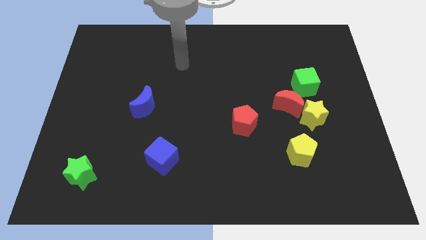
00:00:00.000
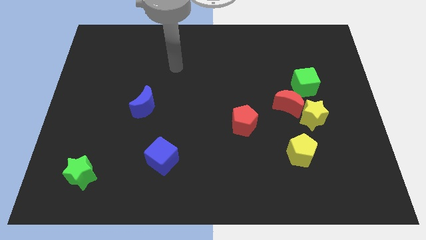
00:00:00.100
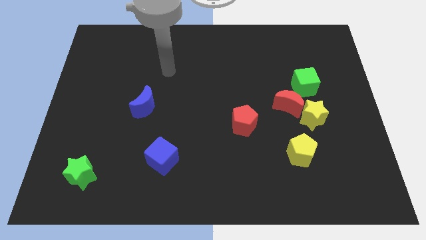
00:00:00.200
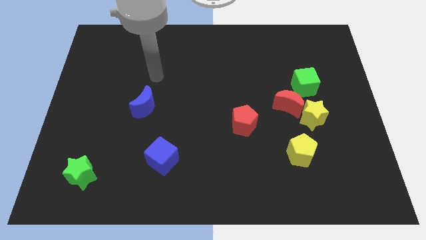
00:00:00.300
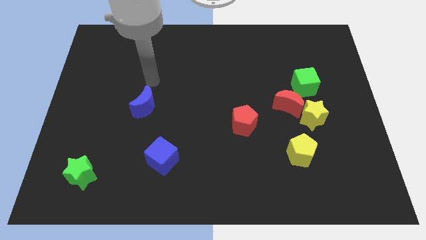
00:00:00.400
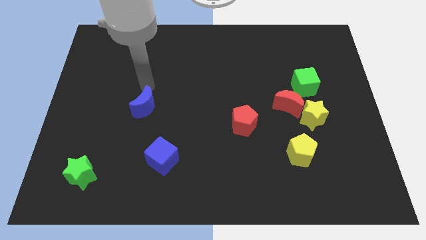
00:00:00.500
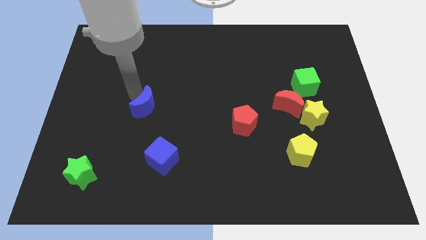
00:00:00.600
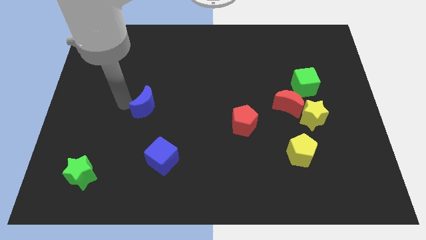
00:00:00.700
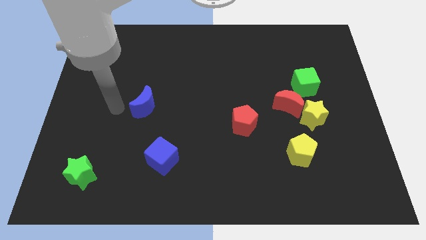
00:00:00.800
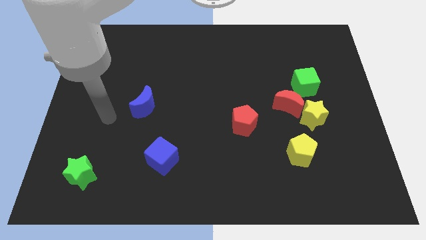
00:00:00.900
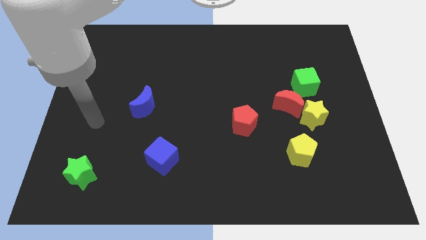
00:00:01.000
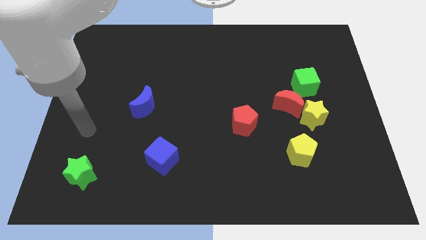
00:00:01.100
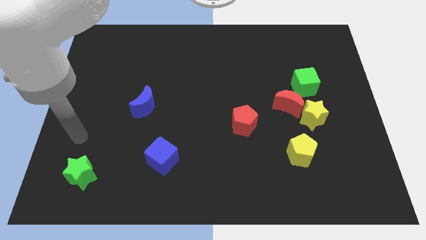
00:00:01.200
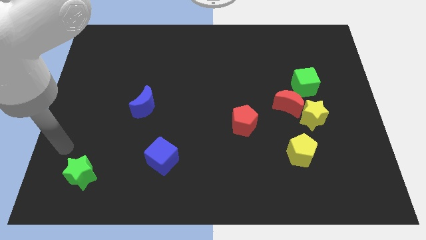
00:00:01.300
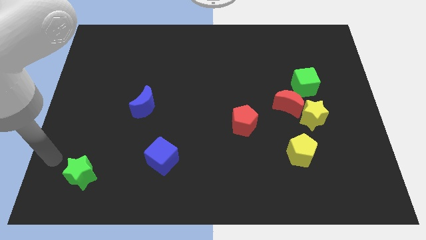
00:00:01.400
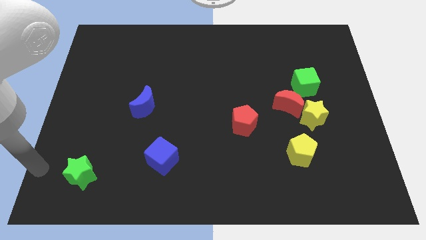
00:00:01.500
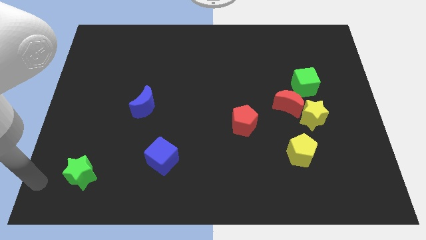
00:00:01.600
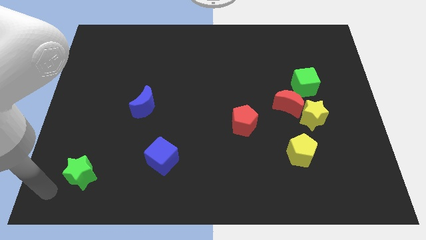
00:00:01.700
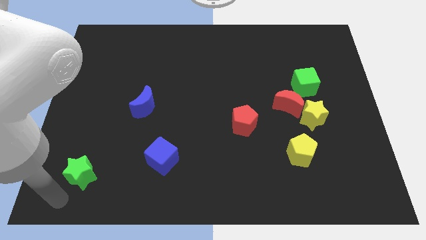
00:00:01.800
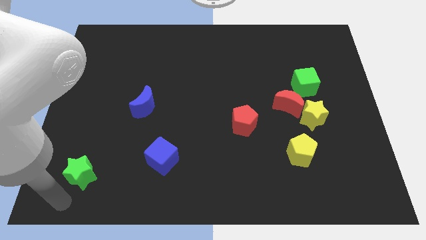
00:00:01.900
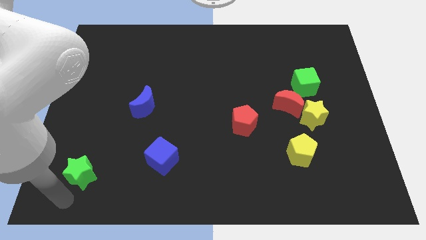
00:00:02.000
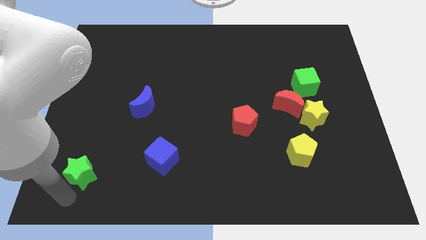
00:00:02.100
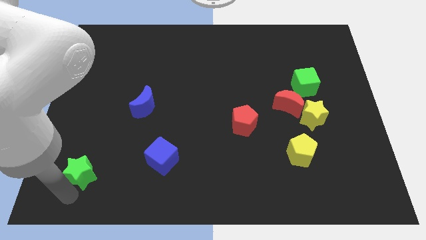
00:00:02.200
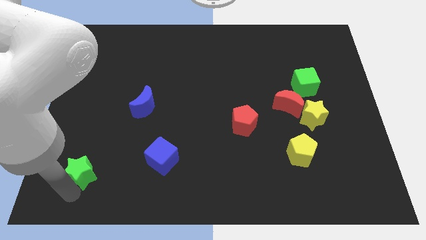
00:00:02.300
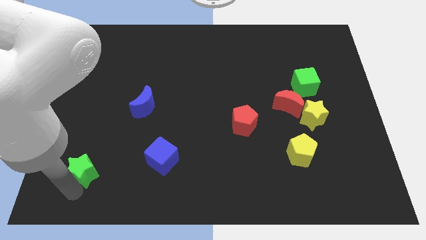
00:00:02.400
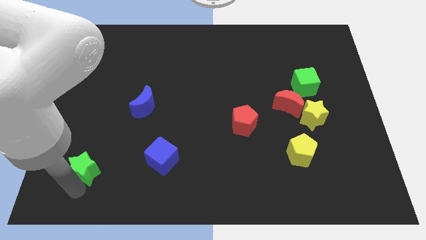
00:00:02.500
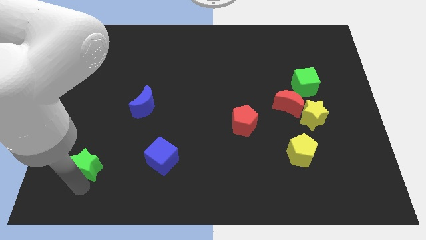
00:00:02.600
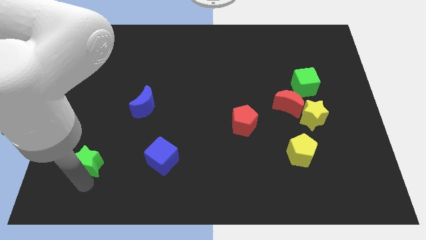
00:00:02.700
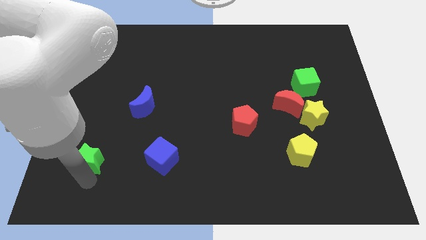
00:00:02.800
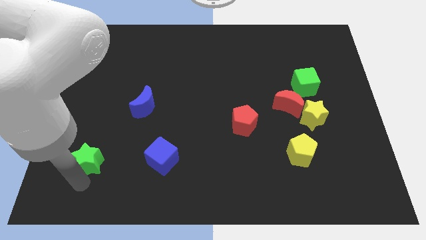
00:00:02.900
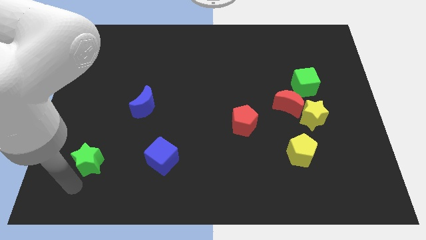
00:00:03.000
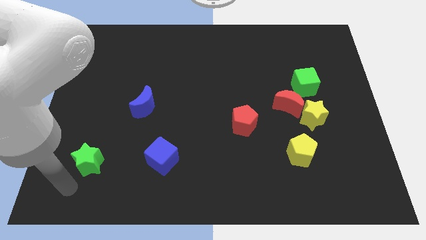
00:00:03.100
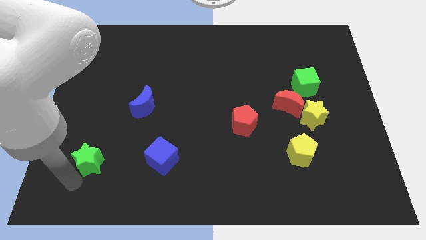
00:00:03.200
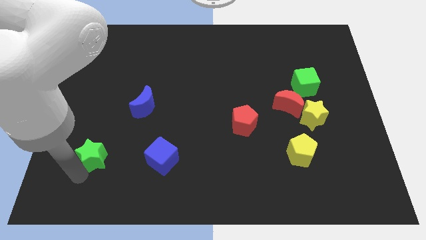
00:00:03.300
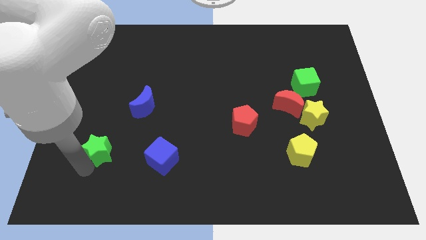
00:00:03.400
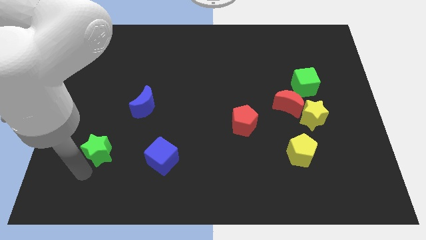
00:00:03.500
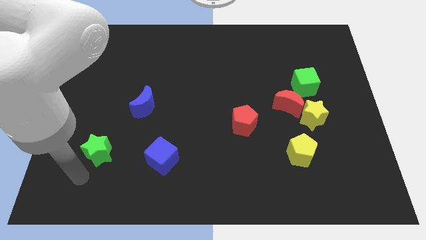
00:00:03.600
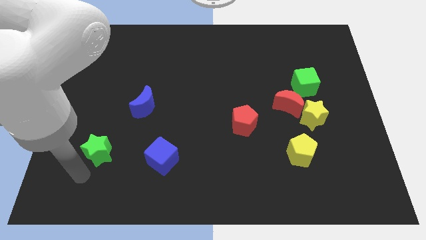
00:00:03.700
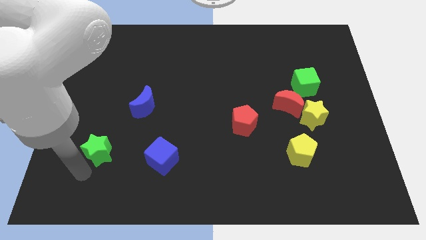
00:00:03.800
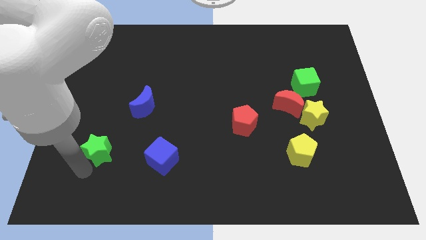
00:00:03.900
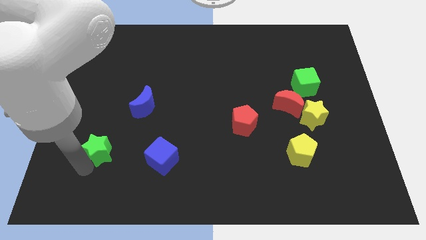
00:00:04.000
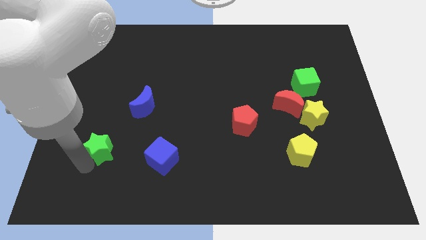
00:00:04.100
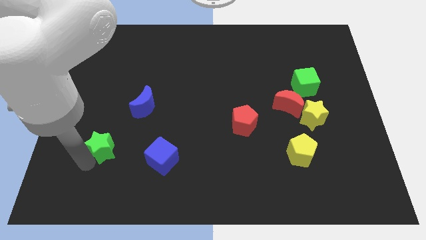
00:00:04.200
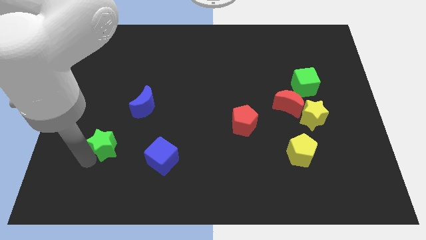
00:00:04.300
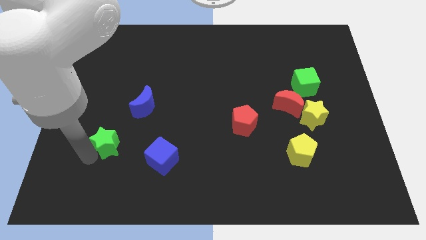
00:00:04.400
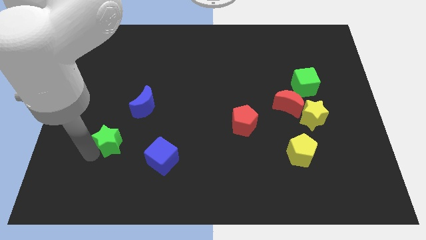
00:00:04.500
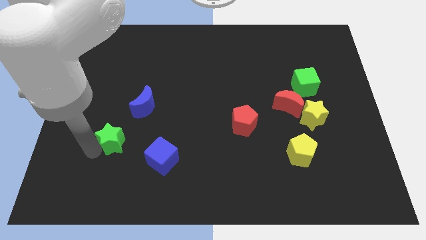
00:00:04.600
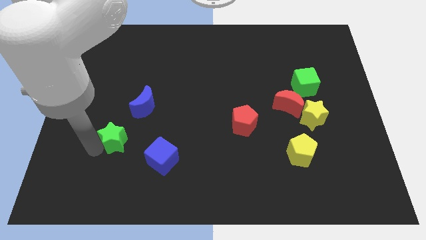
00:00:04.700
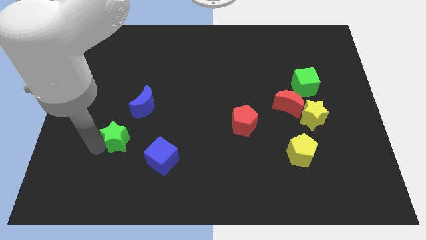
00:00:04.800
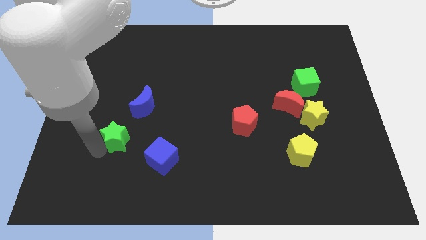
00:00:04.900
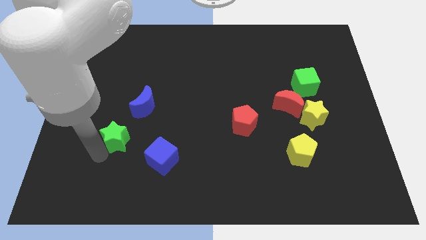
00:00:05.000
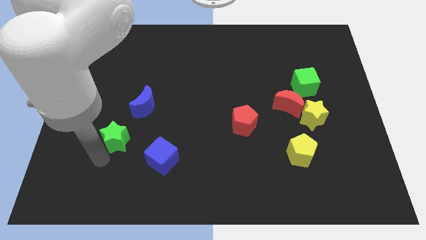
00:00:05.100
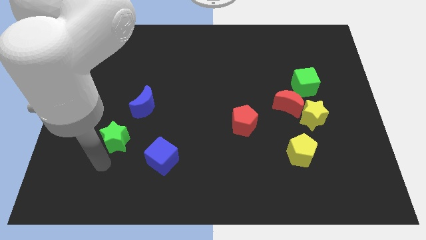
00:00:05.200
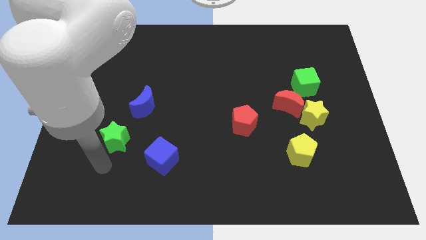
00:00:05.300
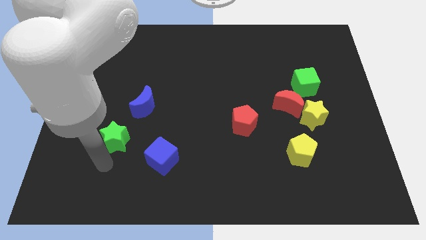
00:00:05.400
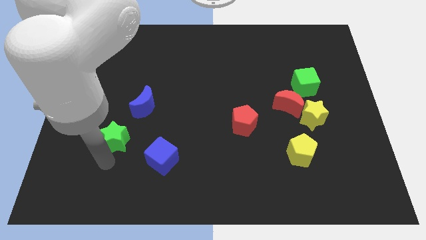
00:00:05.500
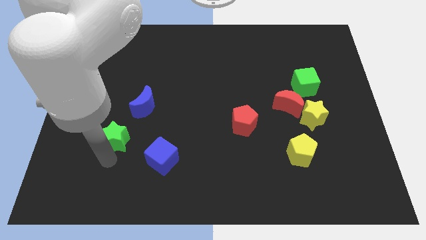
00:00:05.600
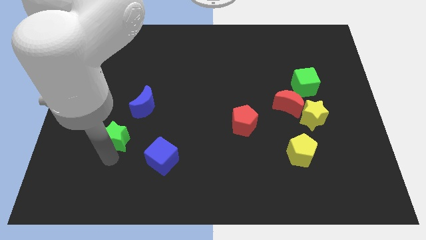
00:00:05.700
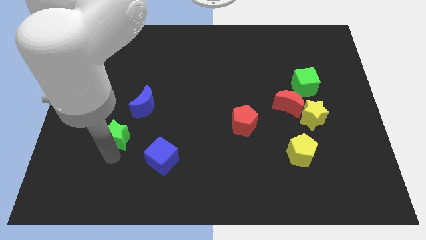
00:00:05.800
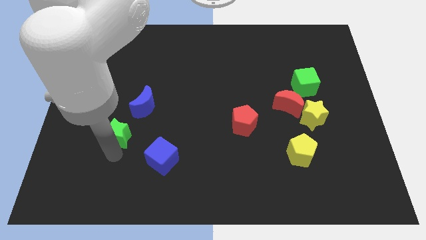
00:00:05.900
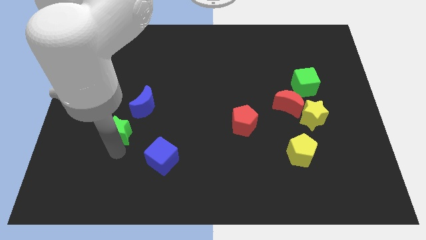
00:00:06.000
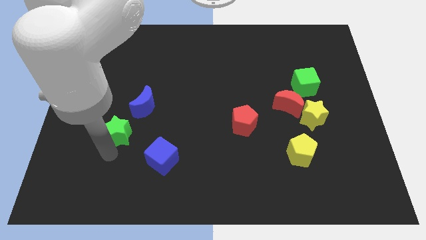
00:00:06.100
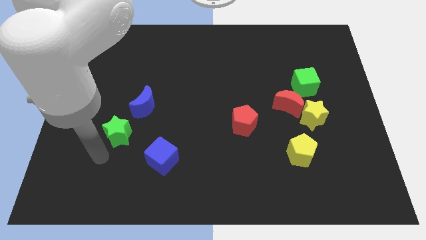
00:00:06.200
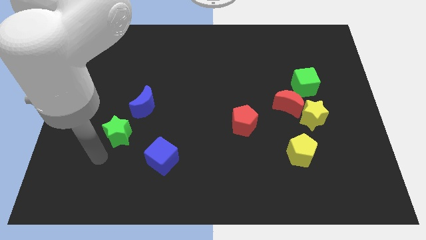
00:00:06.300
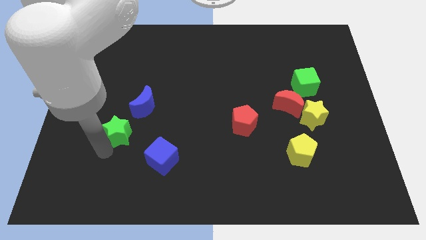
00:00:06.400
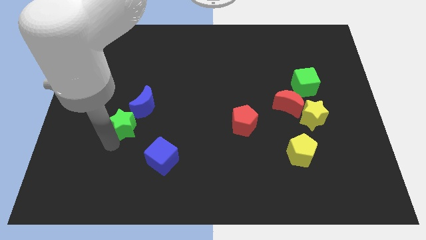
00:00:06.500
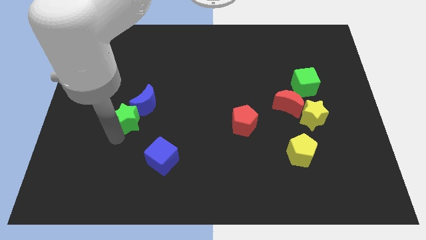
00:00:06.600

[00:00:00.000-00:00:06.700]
slide the green star close to the blue moon

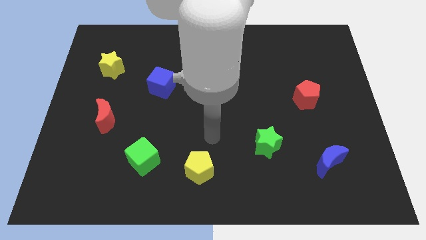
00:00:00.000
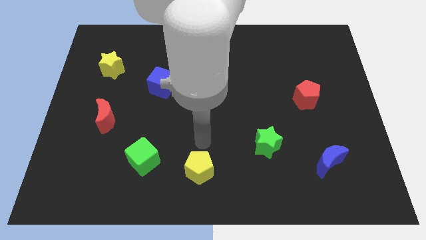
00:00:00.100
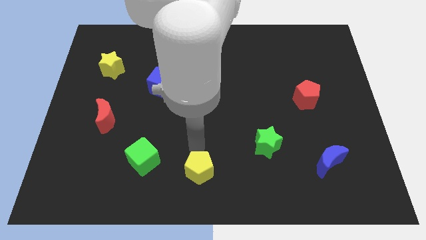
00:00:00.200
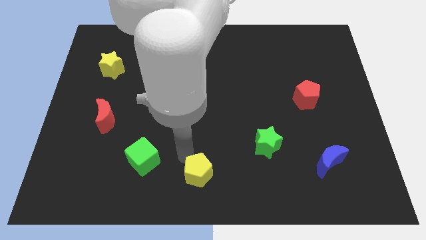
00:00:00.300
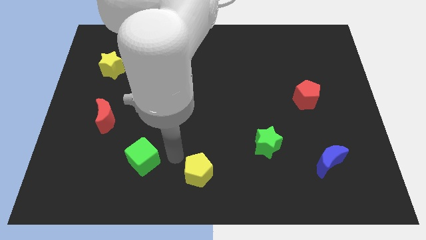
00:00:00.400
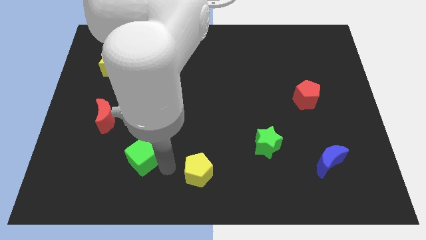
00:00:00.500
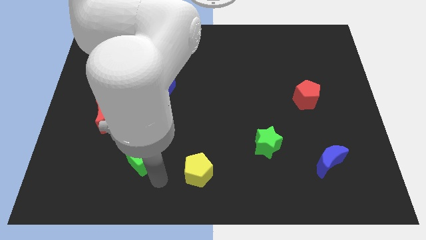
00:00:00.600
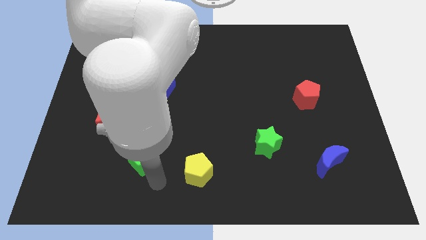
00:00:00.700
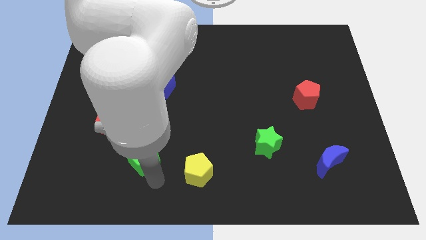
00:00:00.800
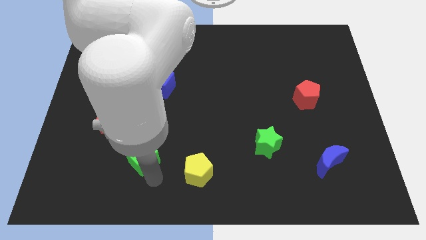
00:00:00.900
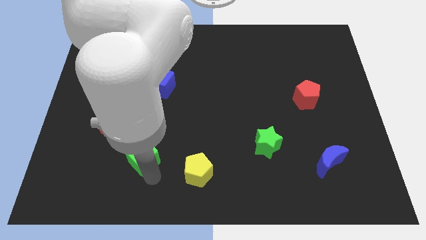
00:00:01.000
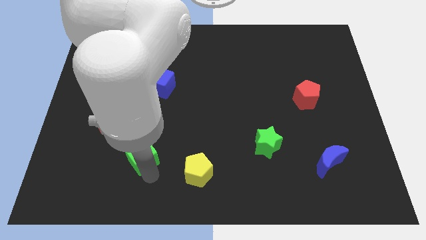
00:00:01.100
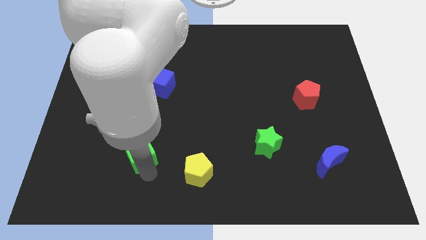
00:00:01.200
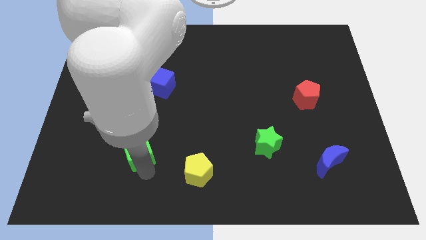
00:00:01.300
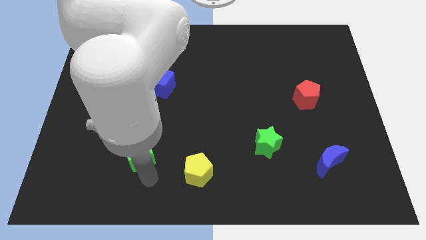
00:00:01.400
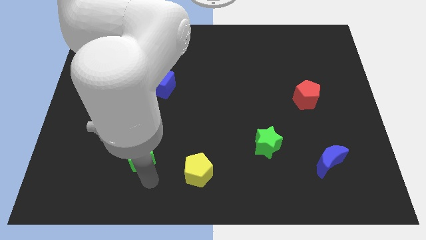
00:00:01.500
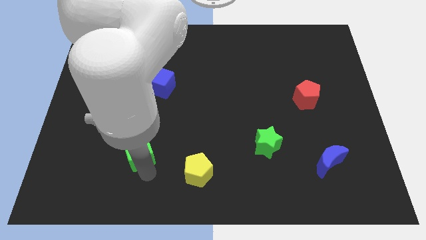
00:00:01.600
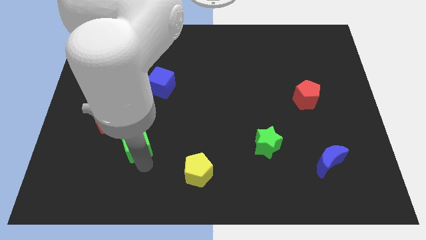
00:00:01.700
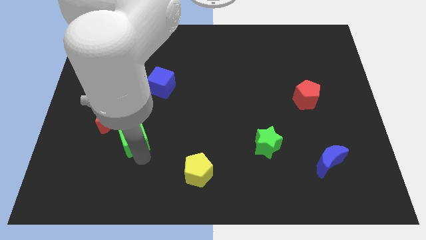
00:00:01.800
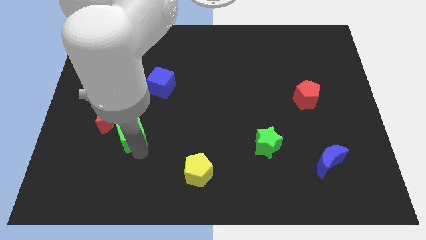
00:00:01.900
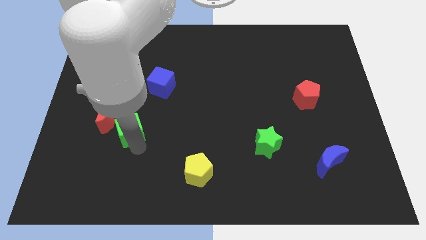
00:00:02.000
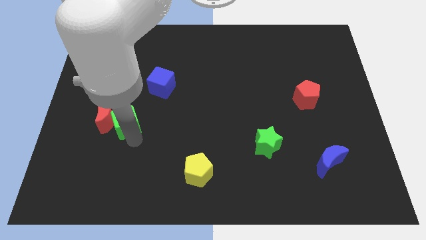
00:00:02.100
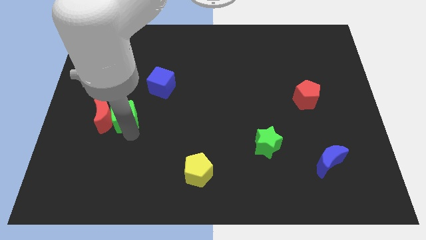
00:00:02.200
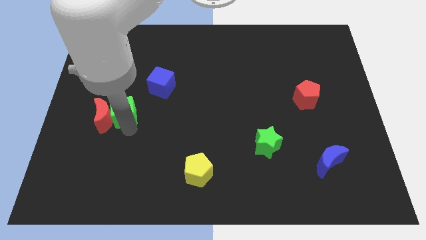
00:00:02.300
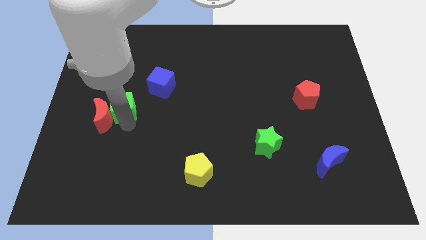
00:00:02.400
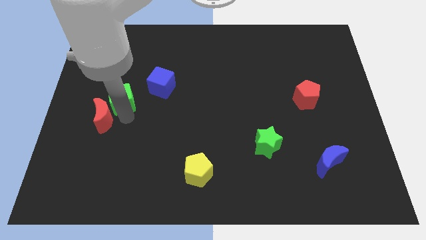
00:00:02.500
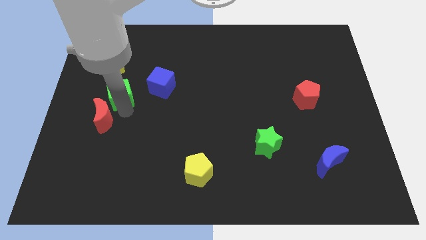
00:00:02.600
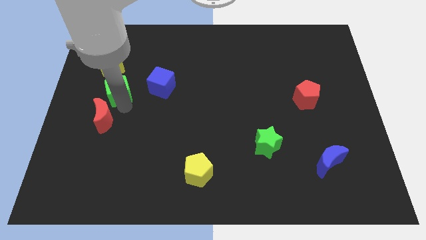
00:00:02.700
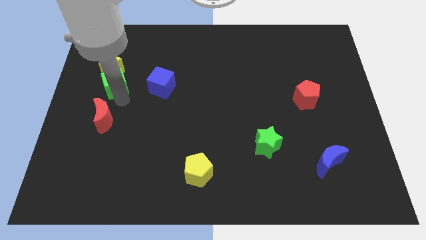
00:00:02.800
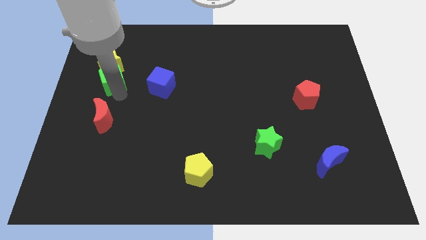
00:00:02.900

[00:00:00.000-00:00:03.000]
slide the green cube close to the yellow star
